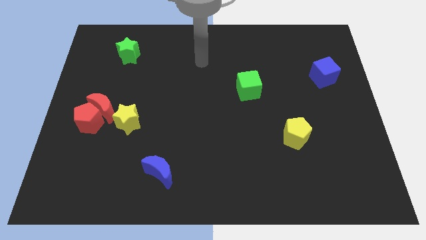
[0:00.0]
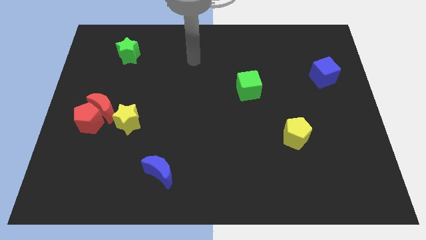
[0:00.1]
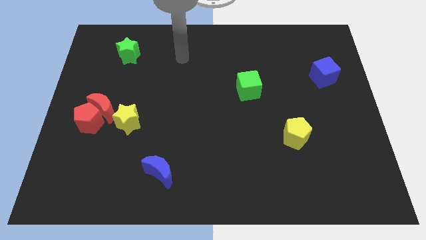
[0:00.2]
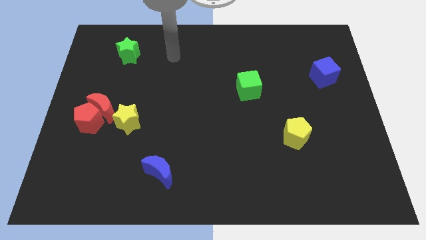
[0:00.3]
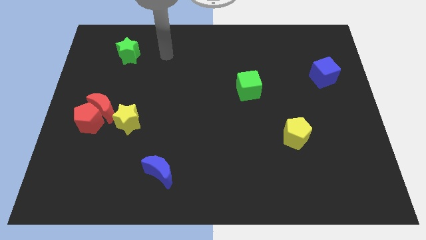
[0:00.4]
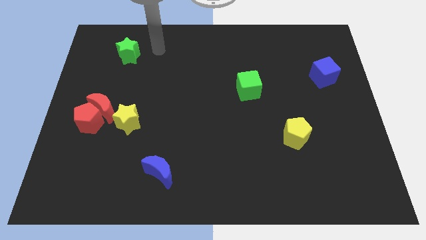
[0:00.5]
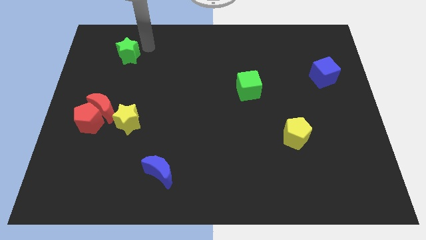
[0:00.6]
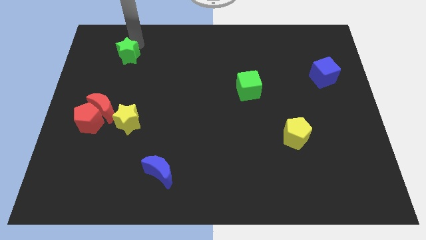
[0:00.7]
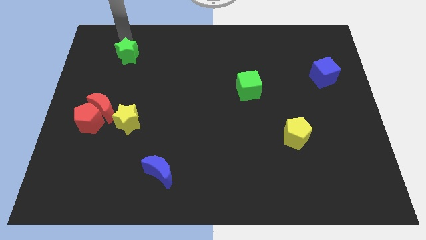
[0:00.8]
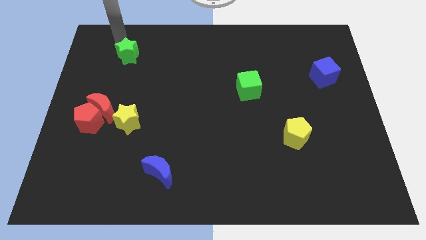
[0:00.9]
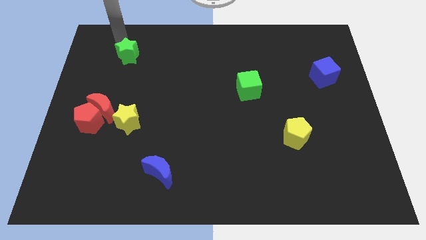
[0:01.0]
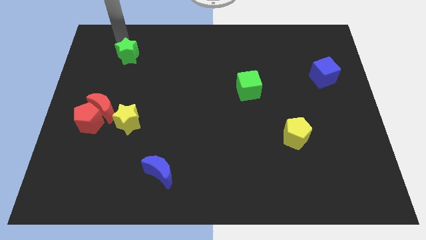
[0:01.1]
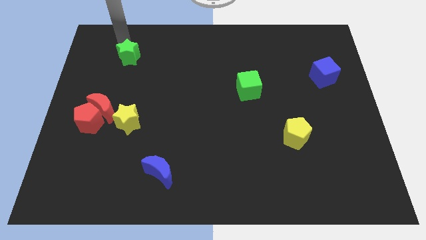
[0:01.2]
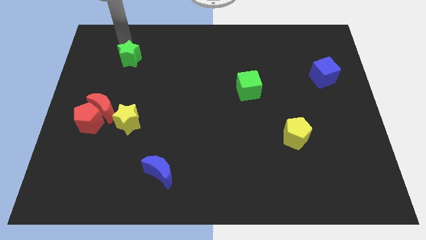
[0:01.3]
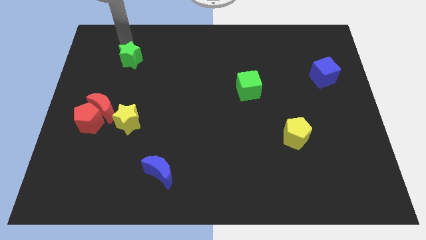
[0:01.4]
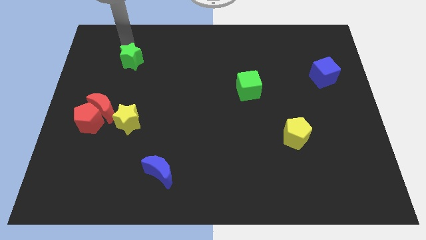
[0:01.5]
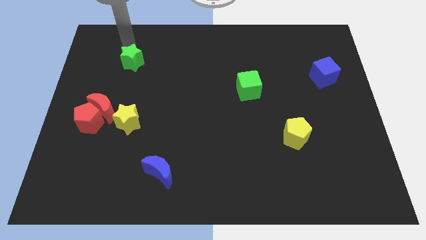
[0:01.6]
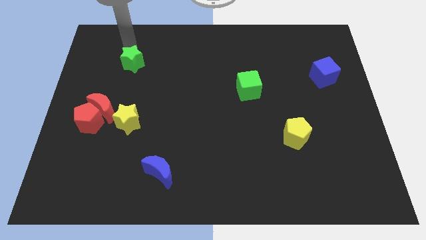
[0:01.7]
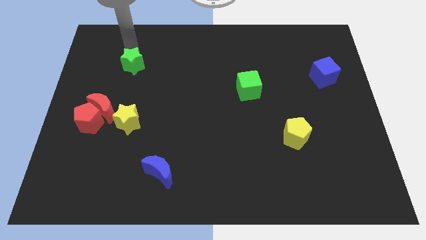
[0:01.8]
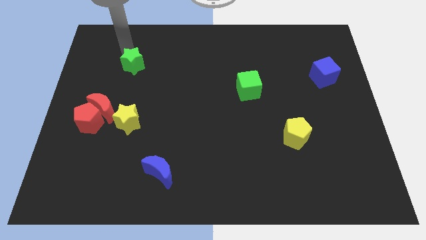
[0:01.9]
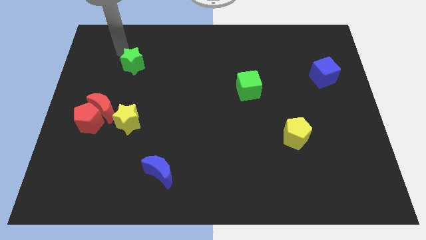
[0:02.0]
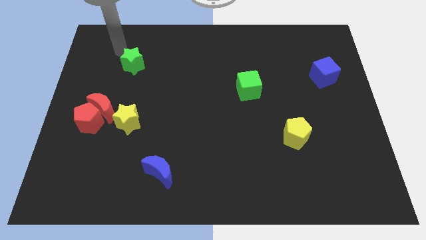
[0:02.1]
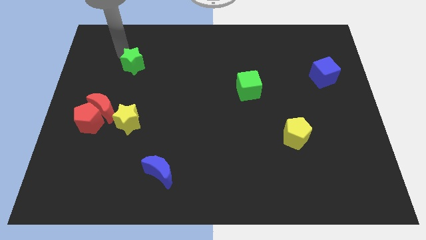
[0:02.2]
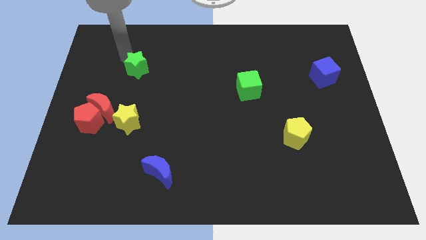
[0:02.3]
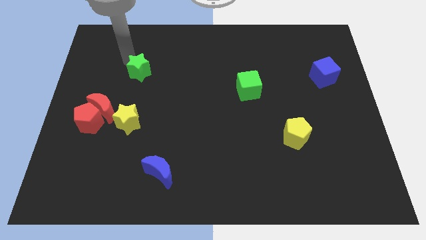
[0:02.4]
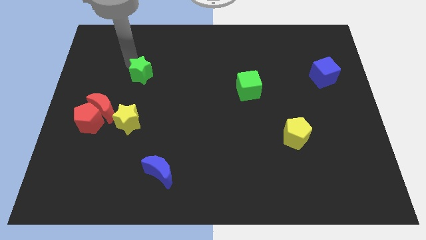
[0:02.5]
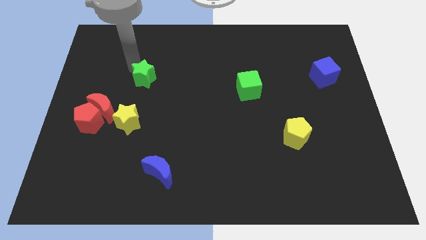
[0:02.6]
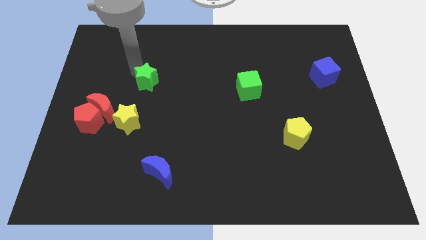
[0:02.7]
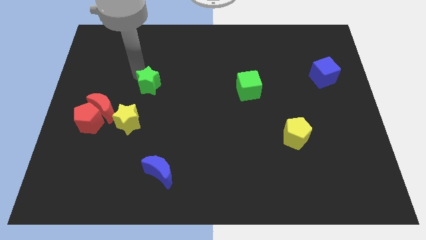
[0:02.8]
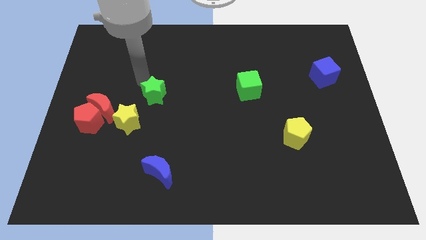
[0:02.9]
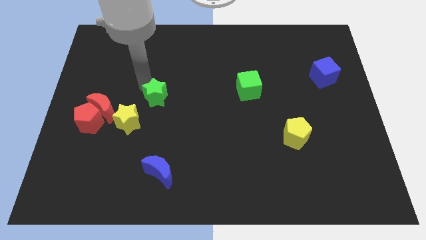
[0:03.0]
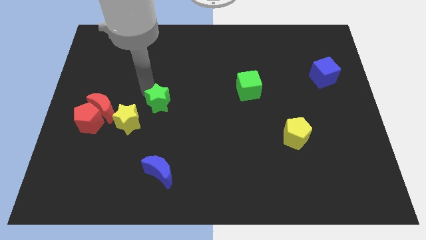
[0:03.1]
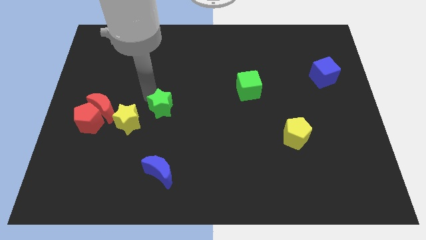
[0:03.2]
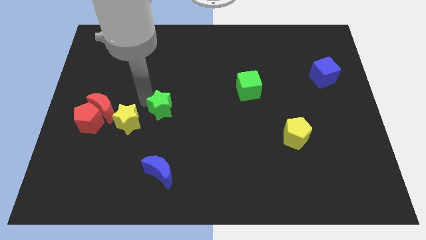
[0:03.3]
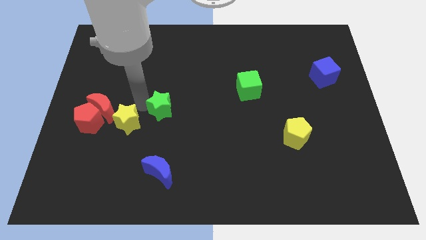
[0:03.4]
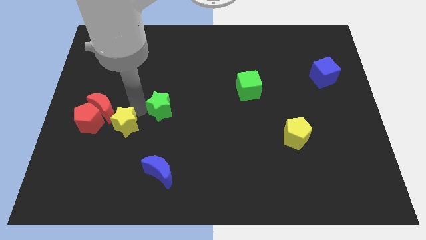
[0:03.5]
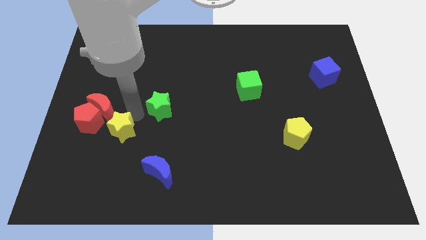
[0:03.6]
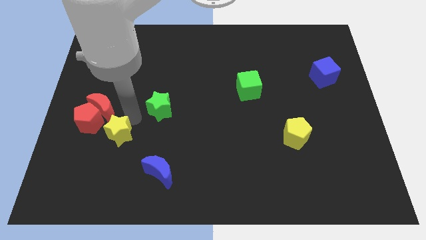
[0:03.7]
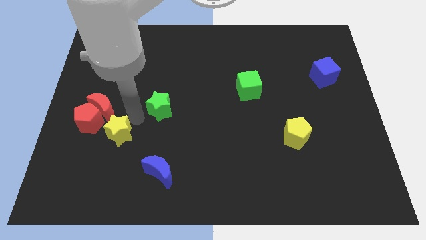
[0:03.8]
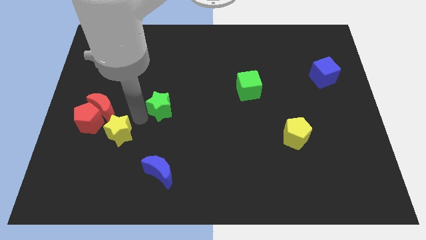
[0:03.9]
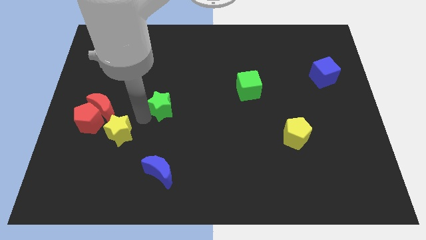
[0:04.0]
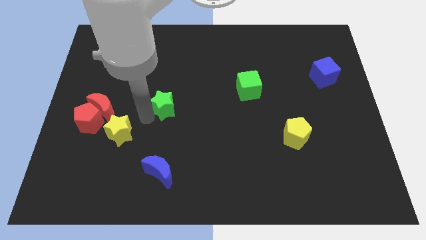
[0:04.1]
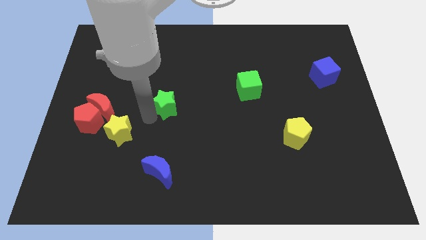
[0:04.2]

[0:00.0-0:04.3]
push the green star downwards and to the right

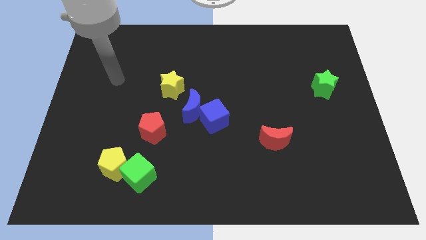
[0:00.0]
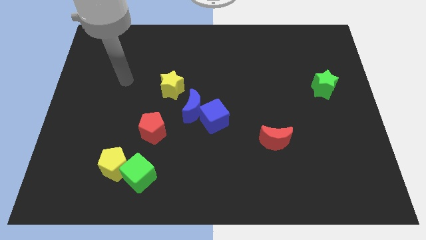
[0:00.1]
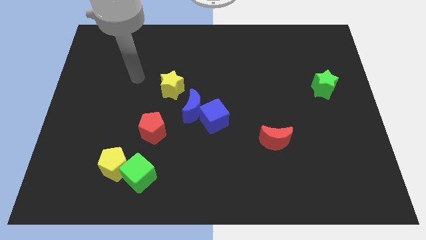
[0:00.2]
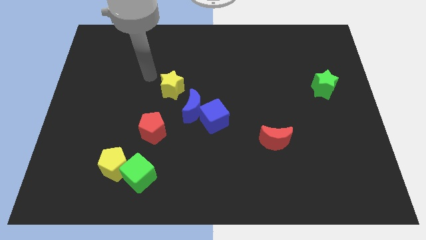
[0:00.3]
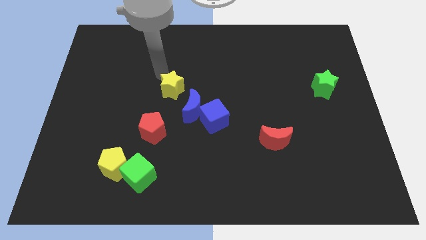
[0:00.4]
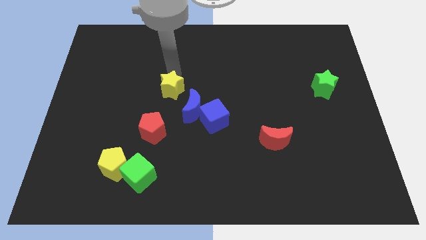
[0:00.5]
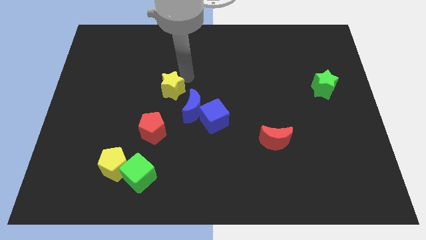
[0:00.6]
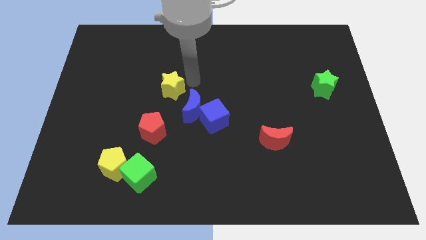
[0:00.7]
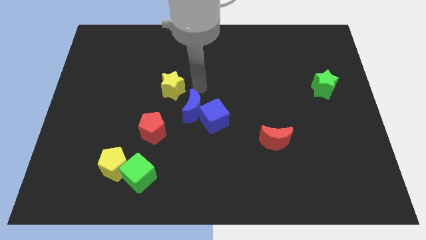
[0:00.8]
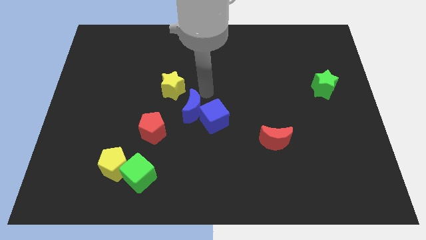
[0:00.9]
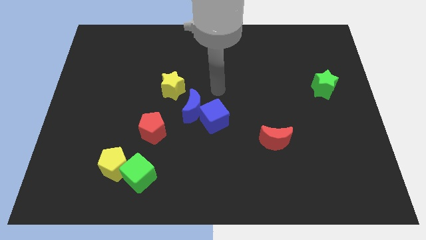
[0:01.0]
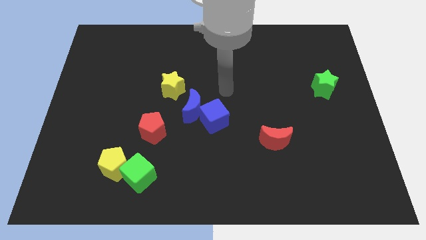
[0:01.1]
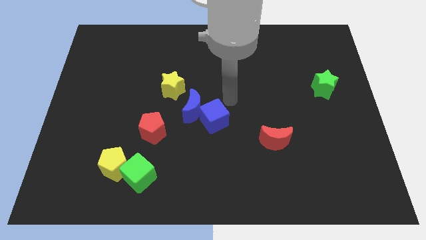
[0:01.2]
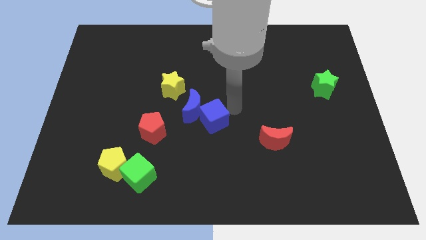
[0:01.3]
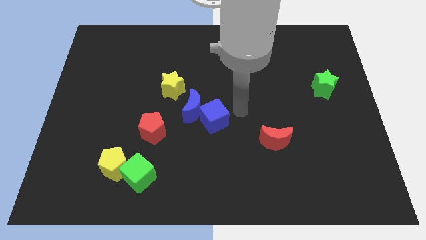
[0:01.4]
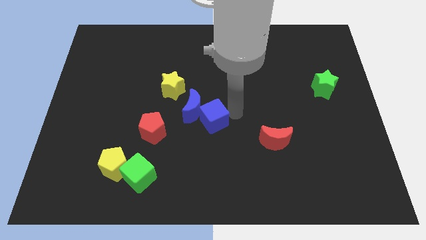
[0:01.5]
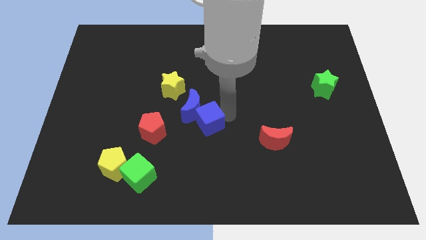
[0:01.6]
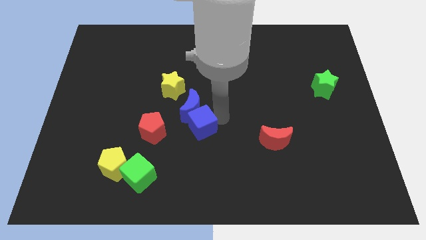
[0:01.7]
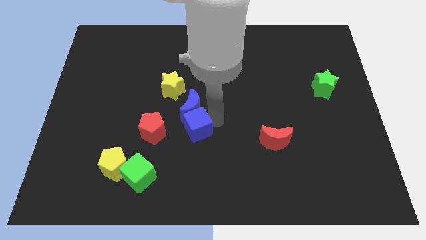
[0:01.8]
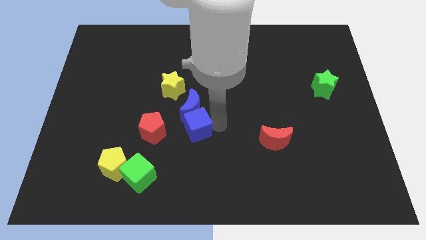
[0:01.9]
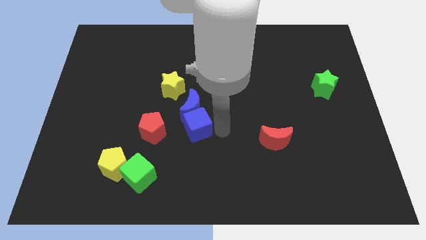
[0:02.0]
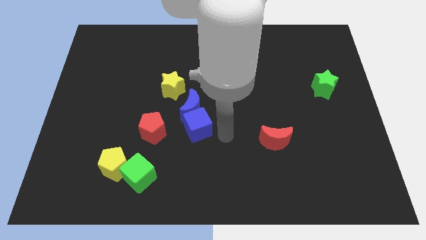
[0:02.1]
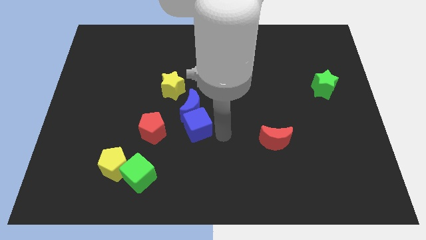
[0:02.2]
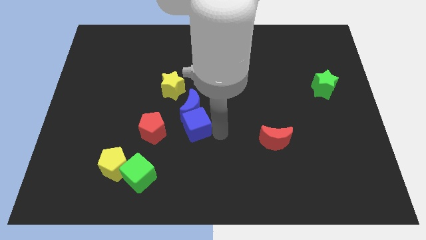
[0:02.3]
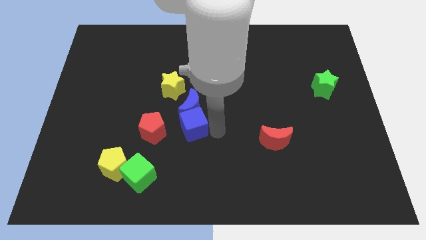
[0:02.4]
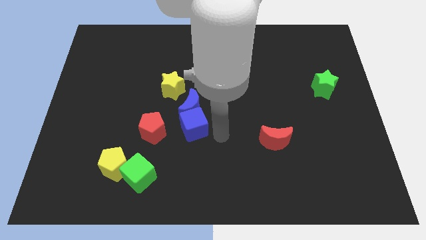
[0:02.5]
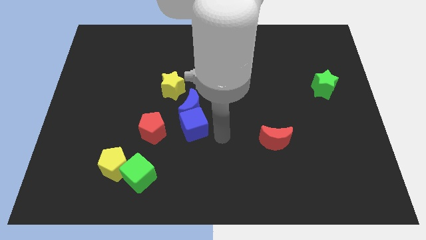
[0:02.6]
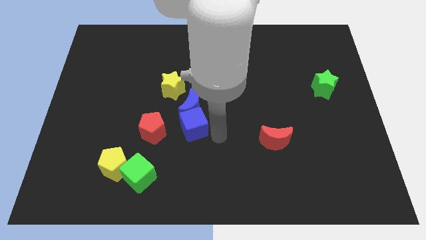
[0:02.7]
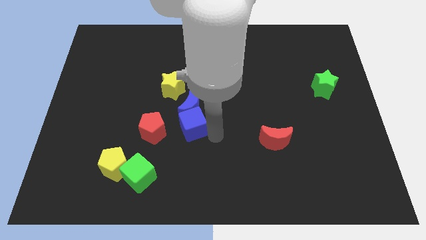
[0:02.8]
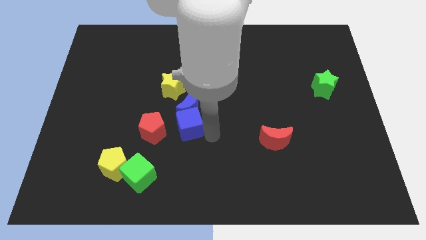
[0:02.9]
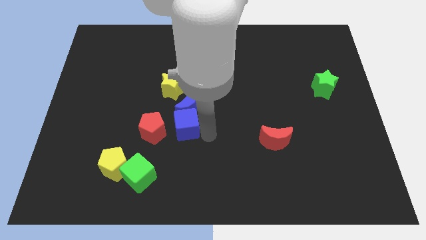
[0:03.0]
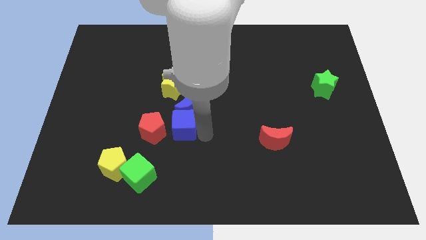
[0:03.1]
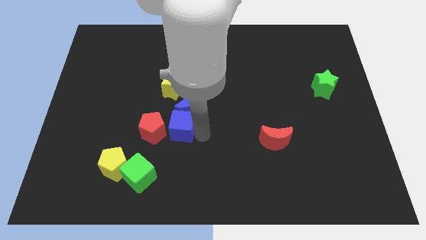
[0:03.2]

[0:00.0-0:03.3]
slide the blue cube a little left

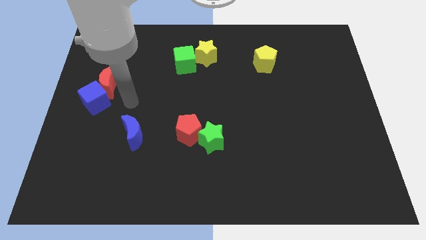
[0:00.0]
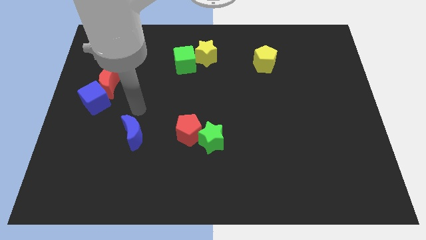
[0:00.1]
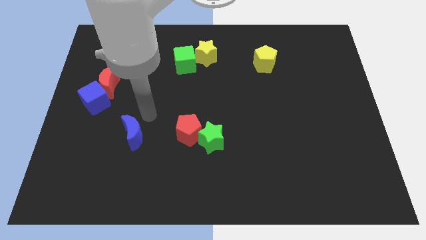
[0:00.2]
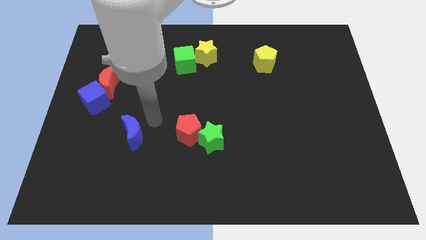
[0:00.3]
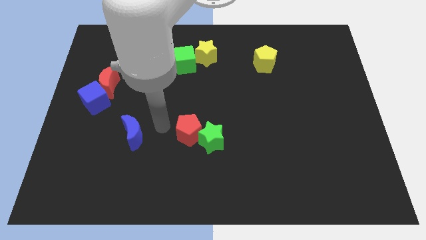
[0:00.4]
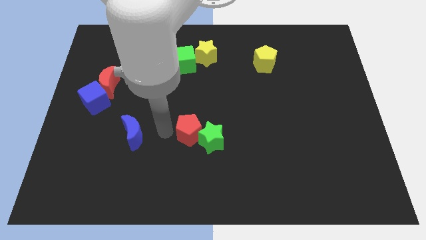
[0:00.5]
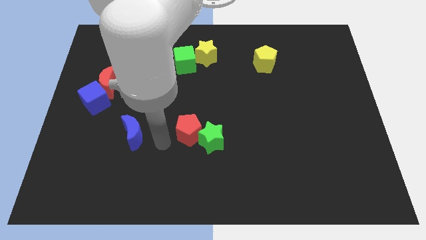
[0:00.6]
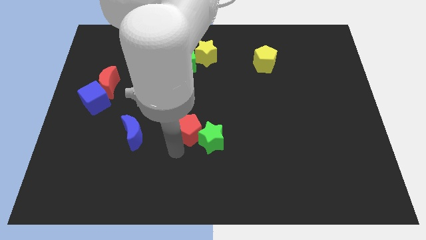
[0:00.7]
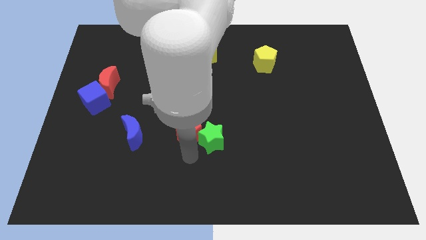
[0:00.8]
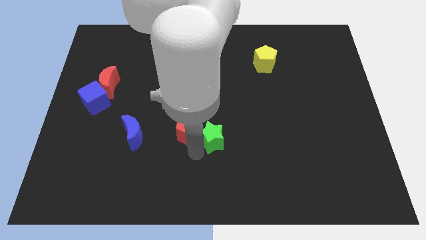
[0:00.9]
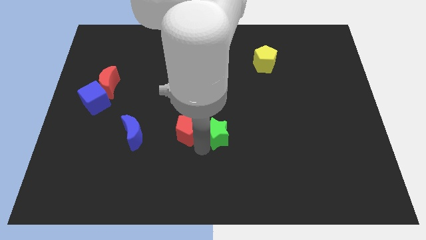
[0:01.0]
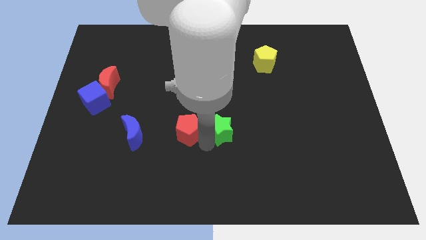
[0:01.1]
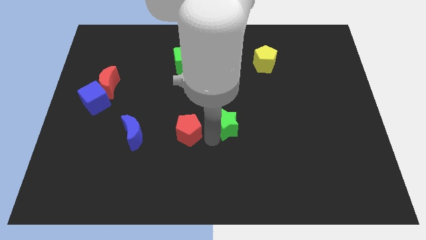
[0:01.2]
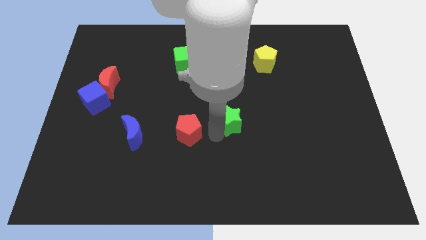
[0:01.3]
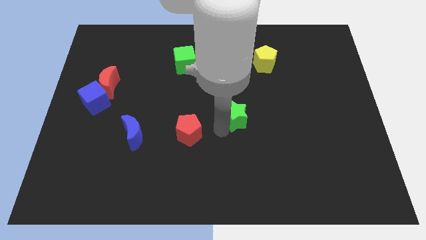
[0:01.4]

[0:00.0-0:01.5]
move the green star somewhat diagonally up and right
